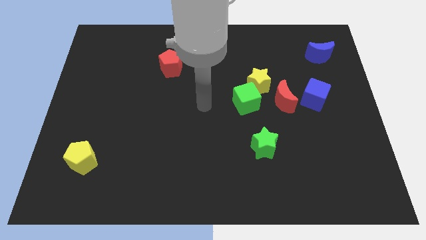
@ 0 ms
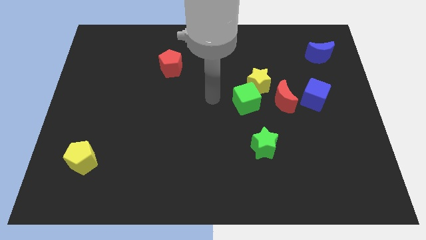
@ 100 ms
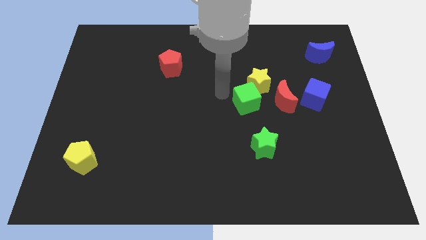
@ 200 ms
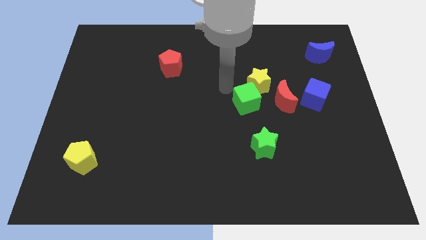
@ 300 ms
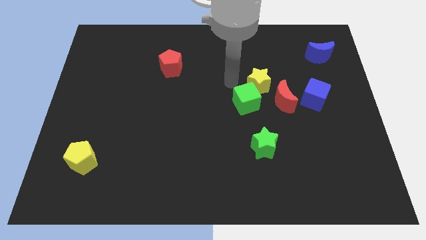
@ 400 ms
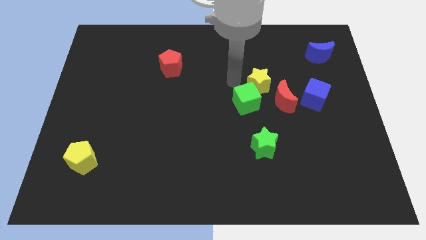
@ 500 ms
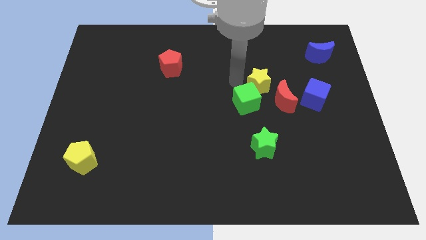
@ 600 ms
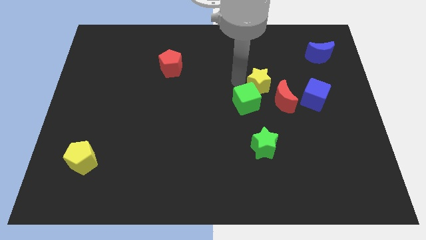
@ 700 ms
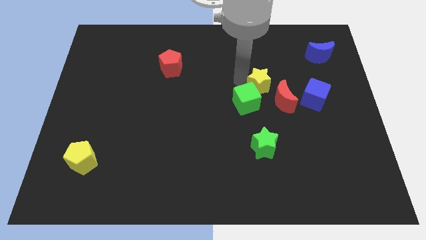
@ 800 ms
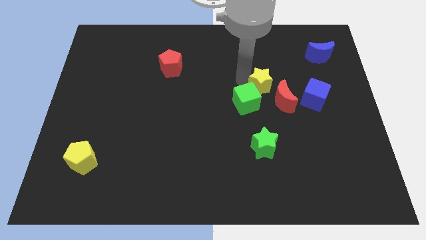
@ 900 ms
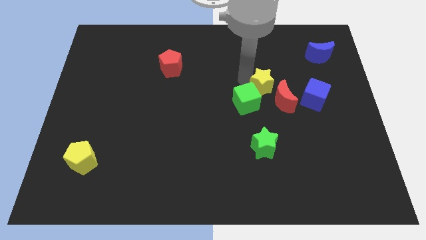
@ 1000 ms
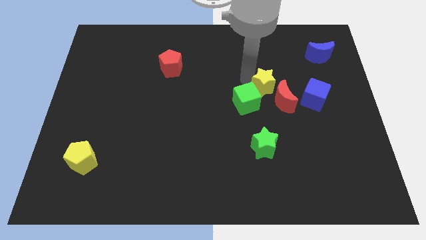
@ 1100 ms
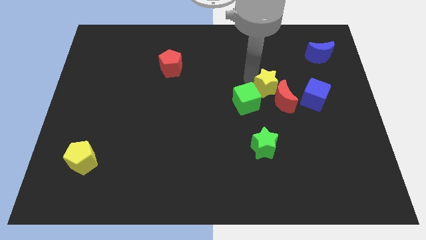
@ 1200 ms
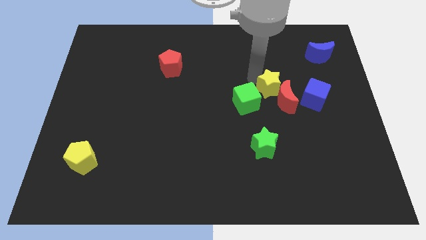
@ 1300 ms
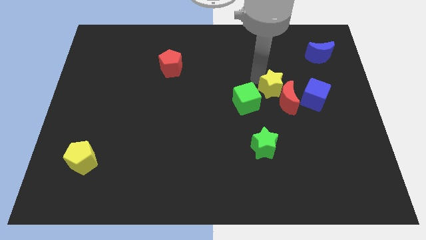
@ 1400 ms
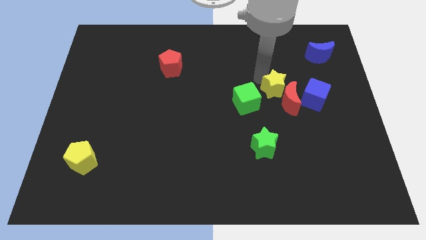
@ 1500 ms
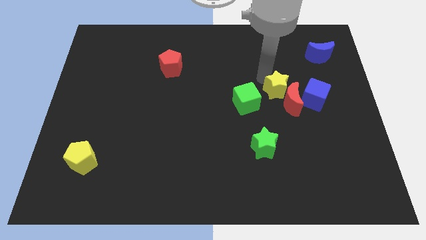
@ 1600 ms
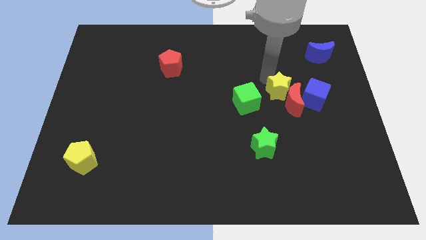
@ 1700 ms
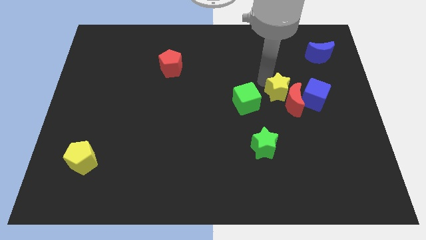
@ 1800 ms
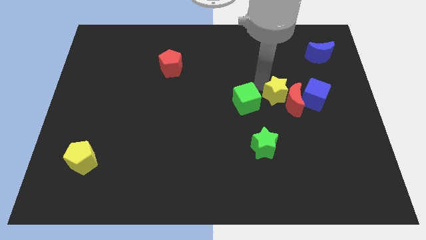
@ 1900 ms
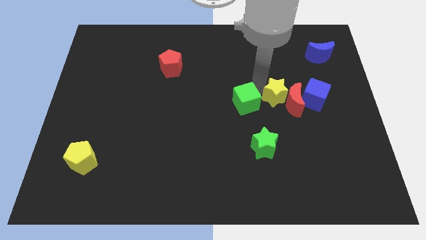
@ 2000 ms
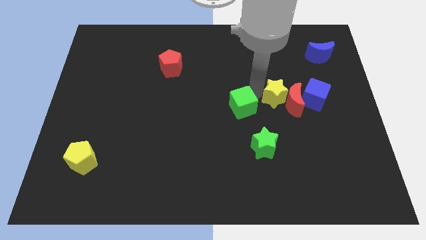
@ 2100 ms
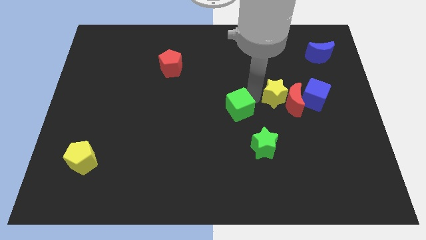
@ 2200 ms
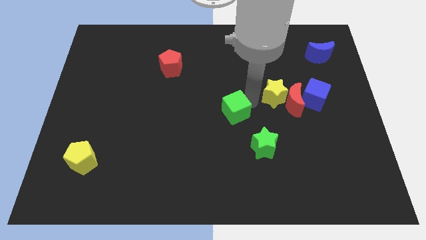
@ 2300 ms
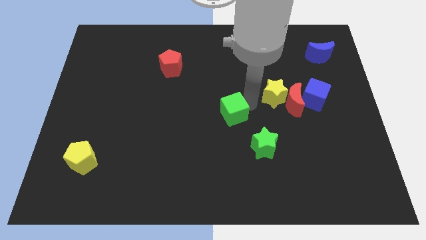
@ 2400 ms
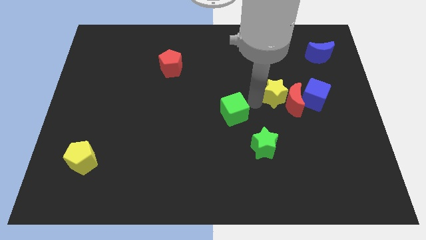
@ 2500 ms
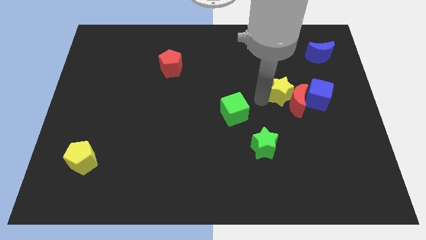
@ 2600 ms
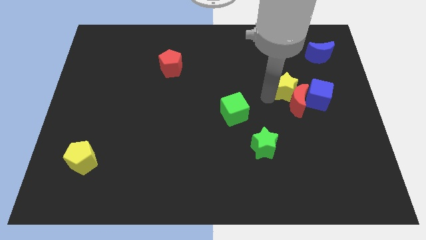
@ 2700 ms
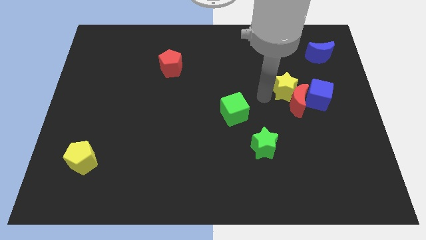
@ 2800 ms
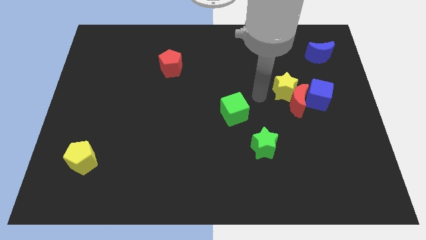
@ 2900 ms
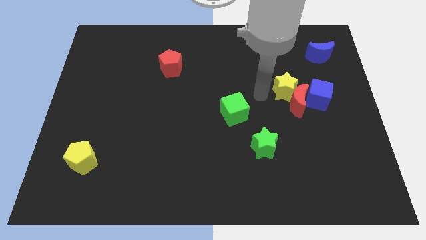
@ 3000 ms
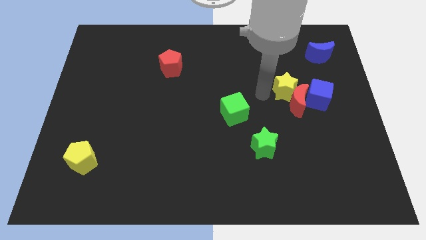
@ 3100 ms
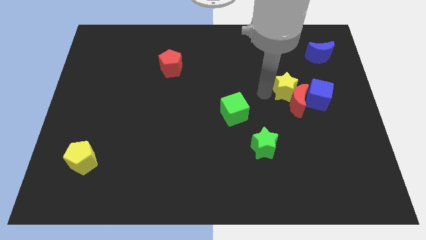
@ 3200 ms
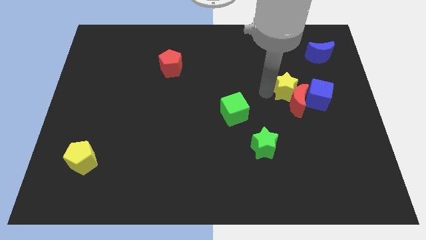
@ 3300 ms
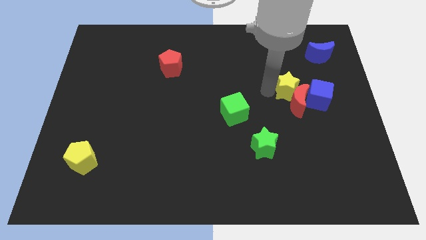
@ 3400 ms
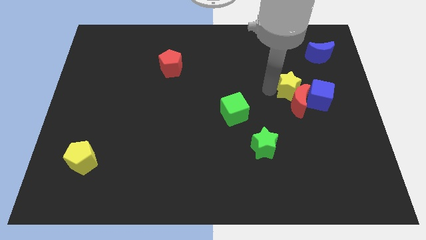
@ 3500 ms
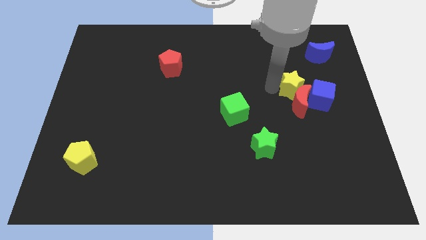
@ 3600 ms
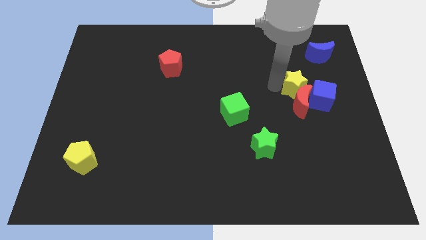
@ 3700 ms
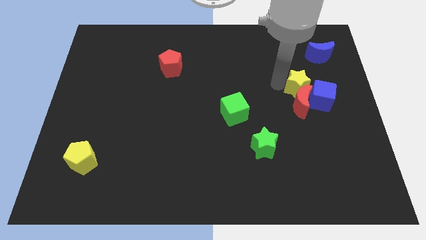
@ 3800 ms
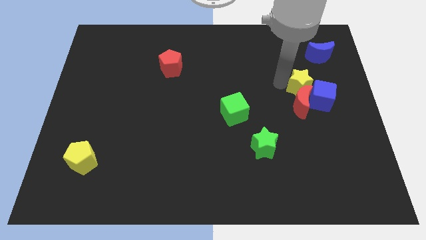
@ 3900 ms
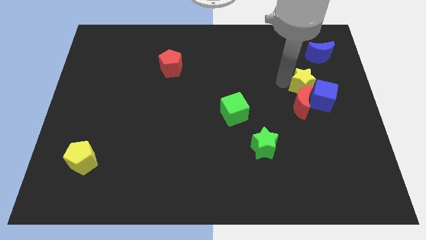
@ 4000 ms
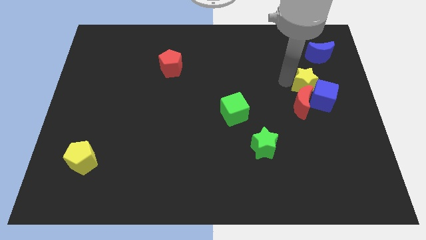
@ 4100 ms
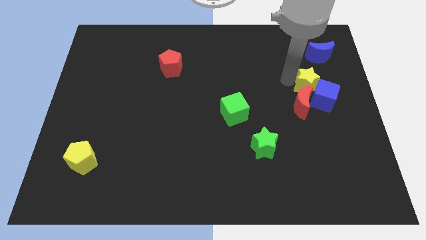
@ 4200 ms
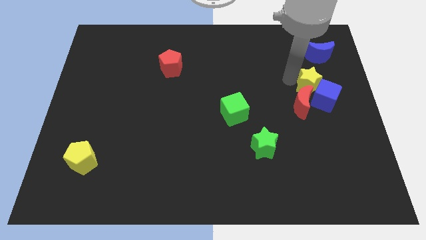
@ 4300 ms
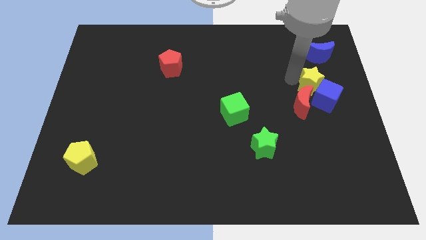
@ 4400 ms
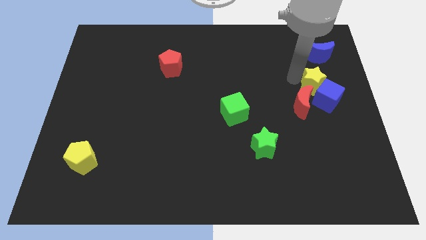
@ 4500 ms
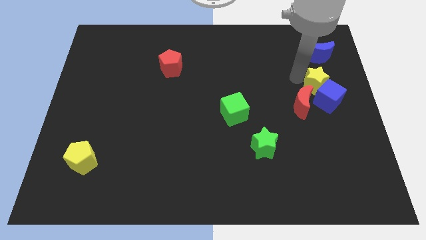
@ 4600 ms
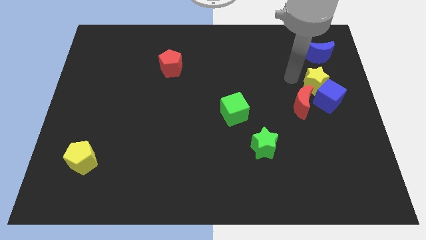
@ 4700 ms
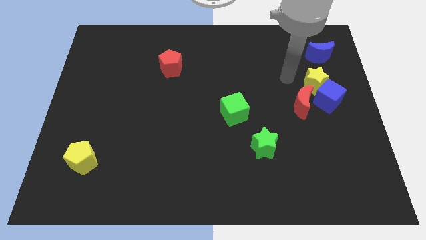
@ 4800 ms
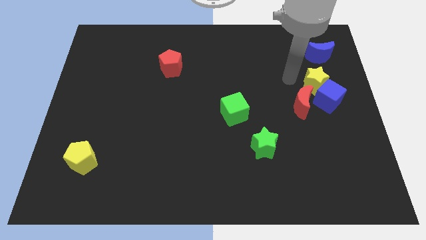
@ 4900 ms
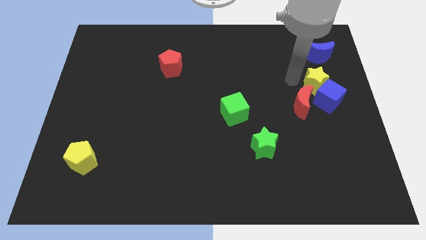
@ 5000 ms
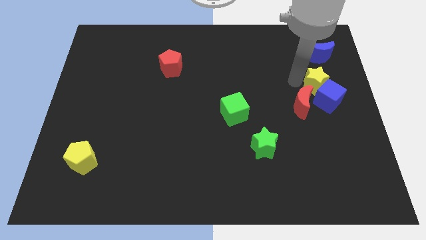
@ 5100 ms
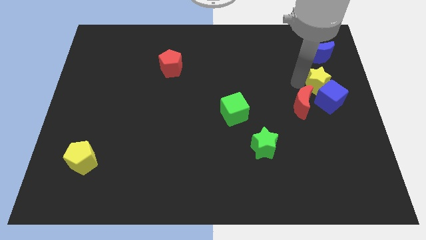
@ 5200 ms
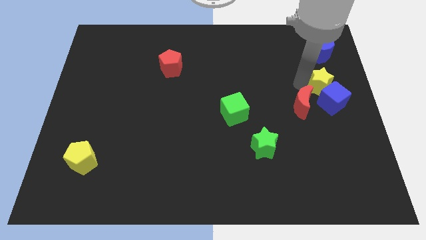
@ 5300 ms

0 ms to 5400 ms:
slide the yellow star to the right side
